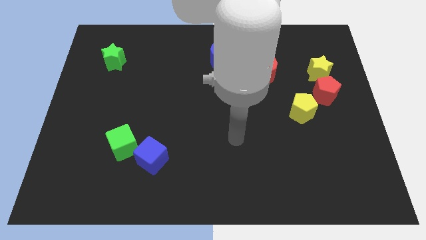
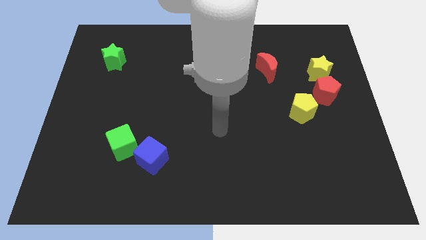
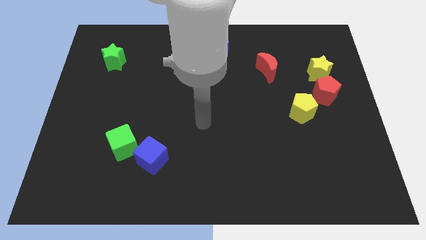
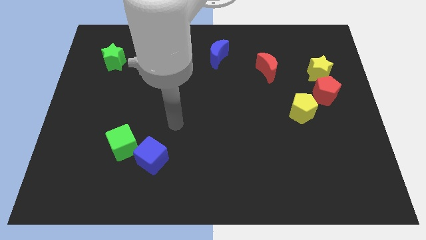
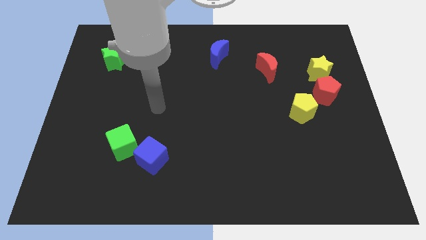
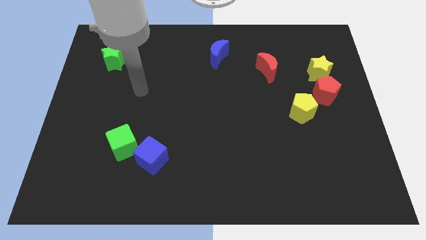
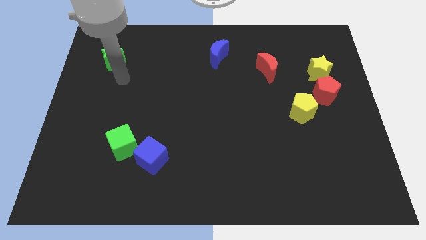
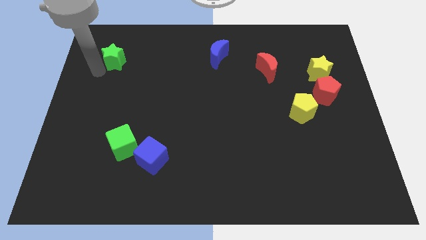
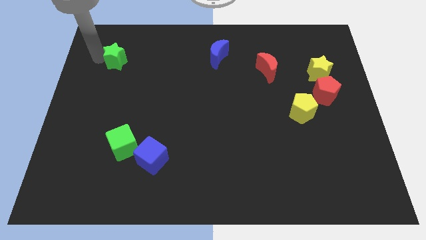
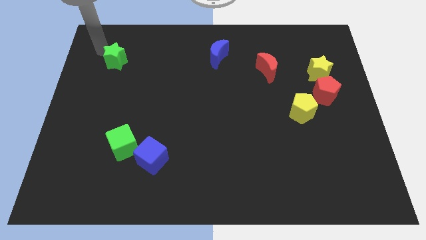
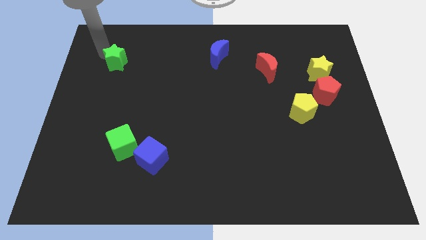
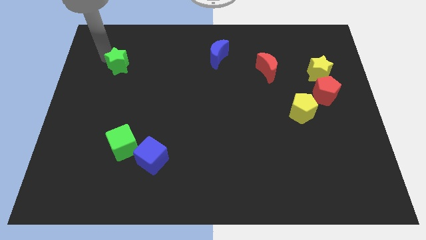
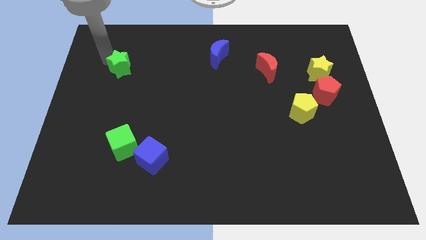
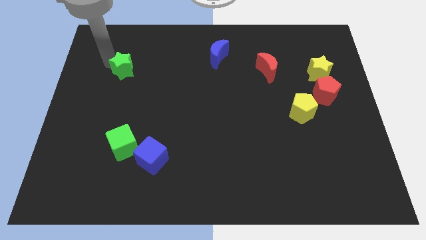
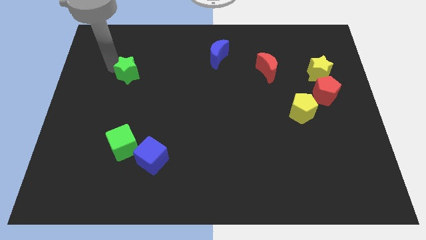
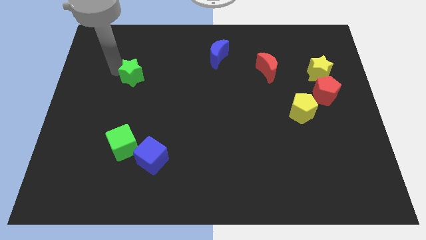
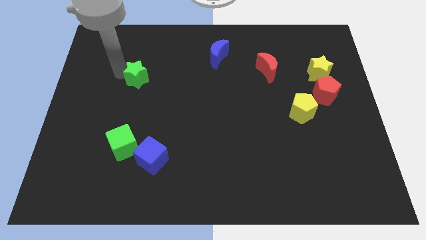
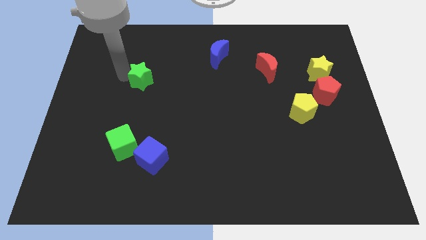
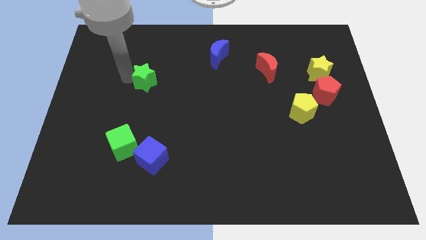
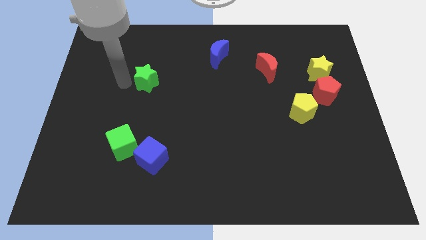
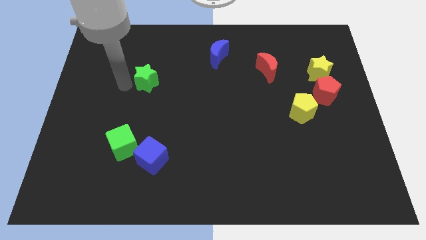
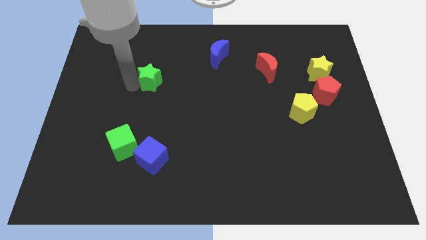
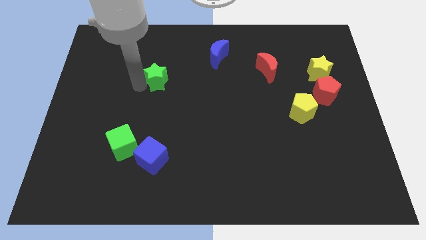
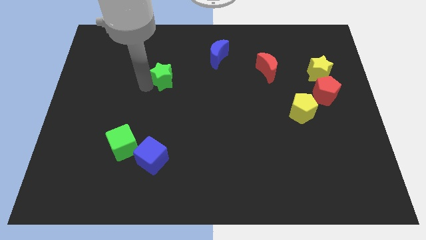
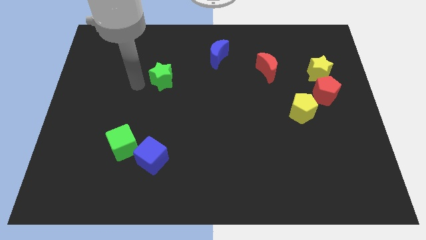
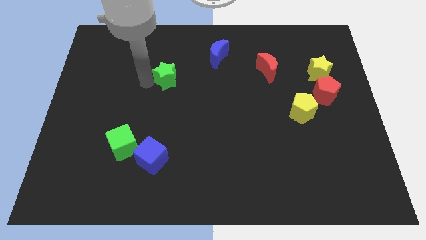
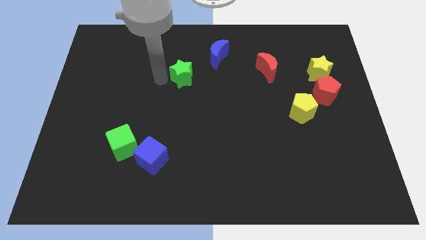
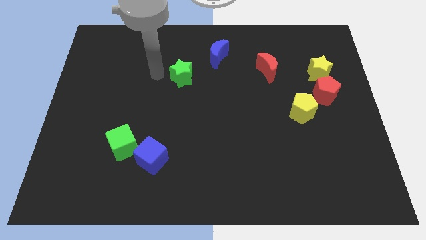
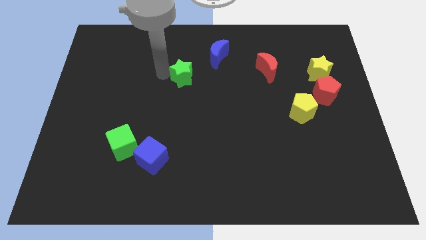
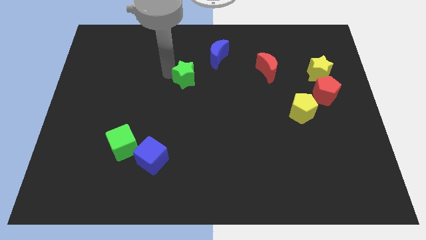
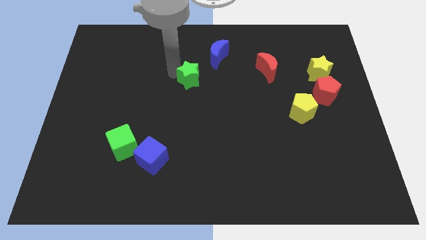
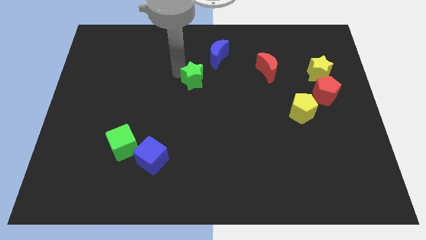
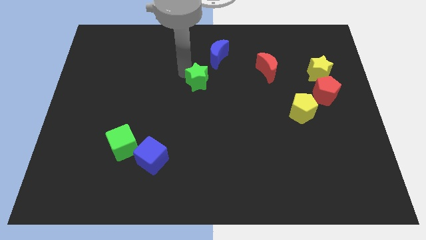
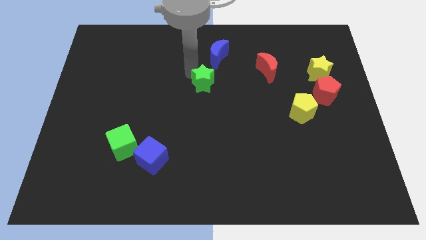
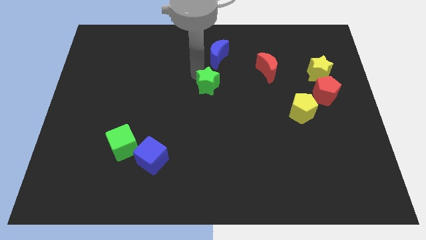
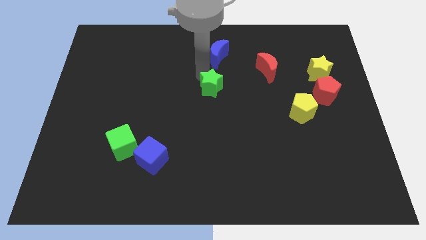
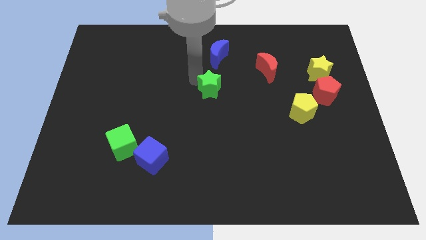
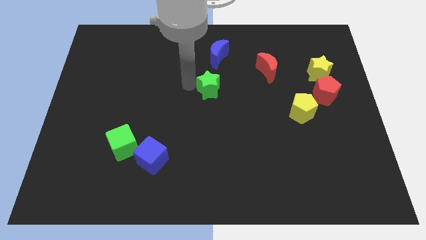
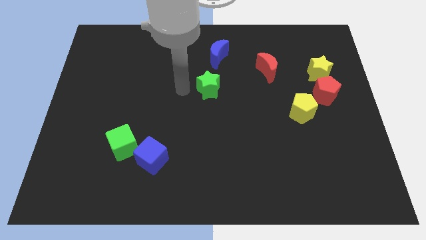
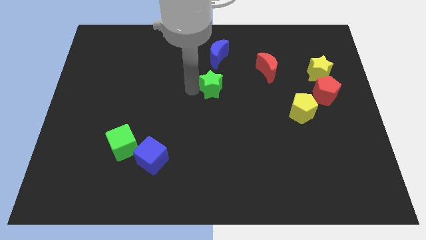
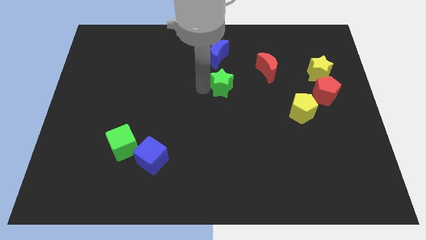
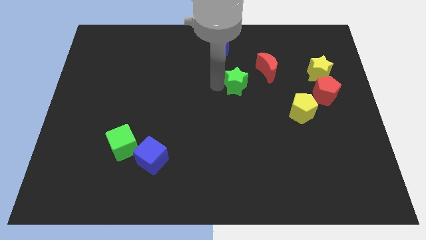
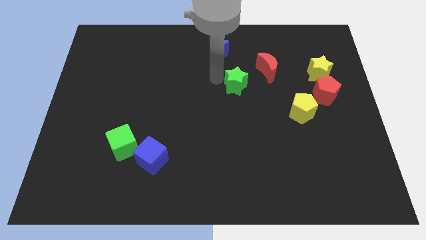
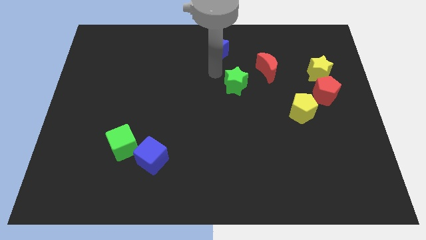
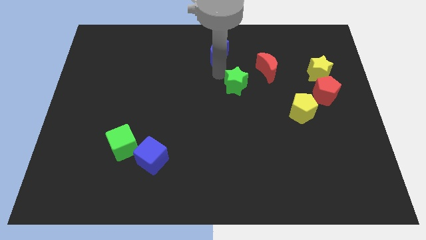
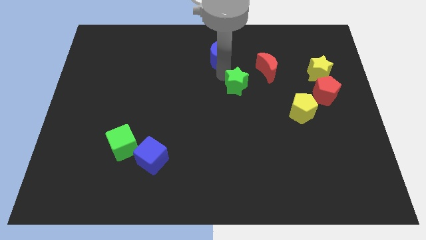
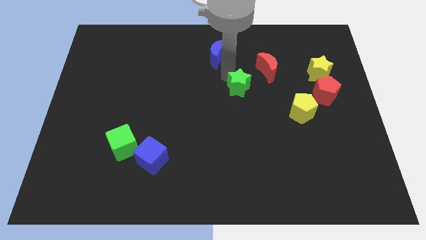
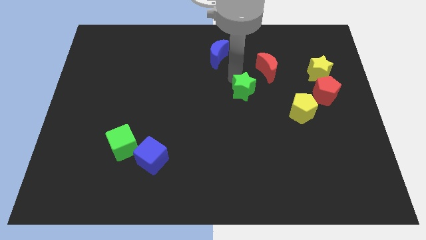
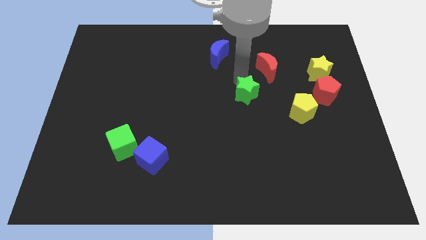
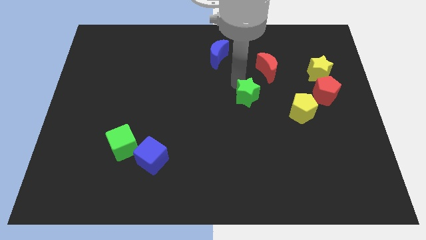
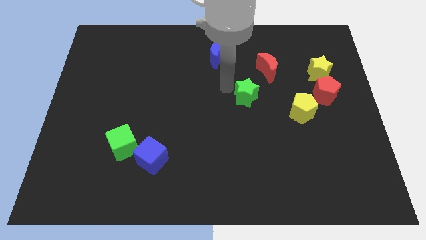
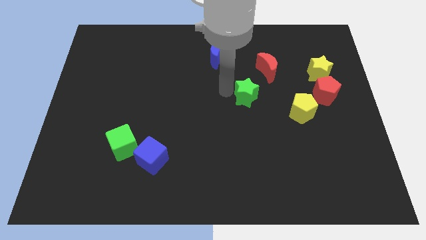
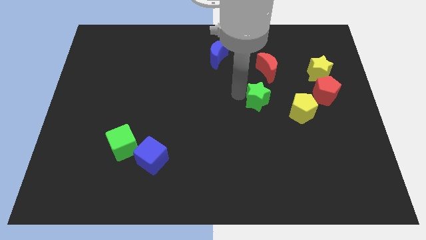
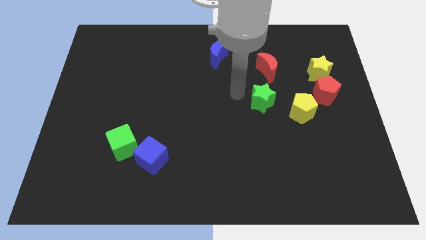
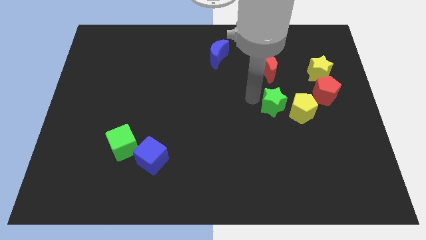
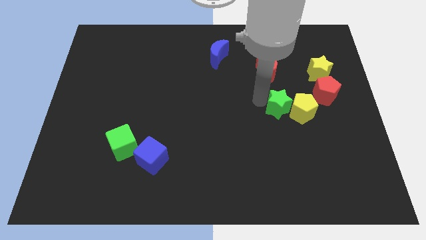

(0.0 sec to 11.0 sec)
slide the green star towards the yellow pentagon

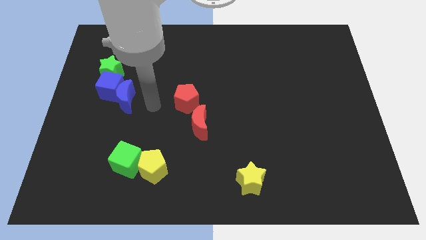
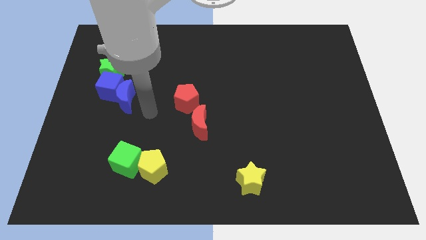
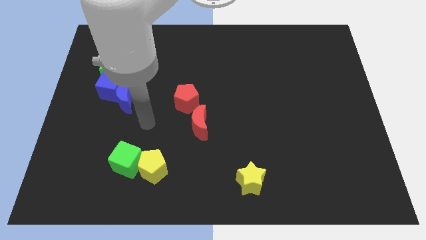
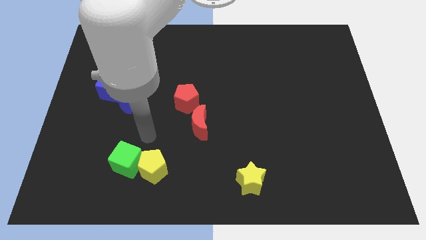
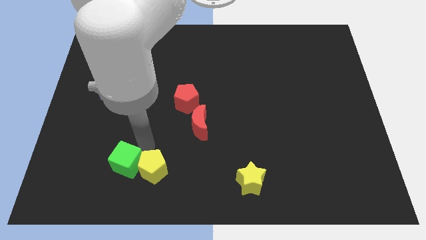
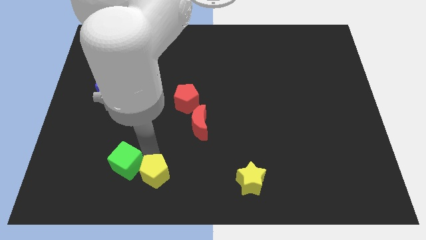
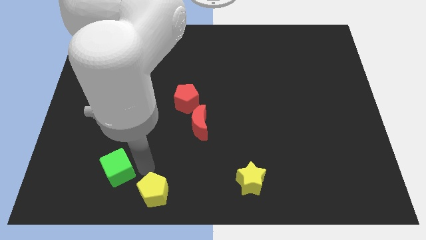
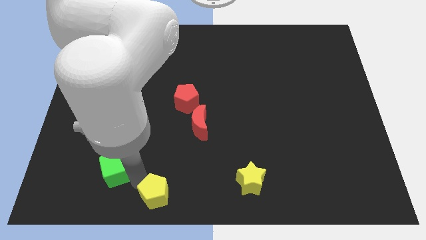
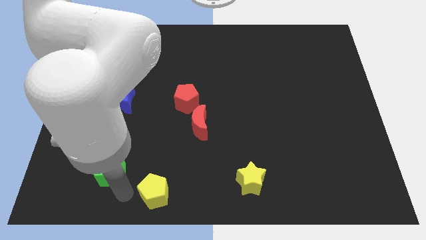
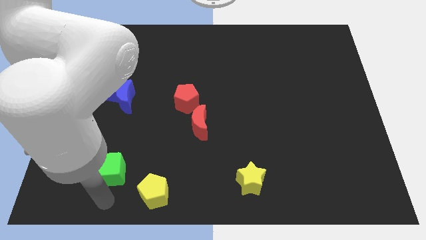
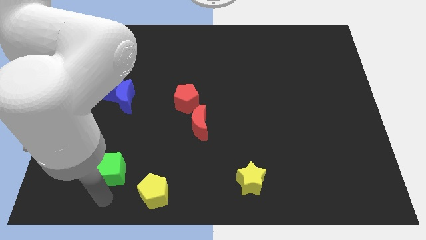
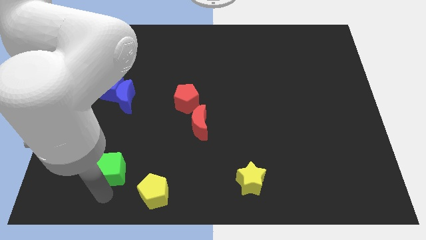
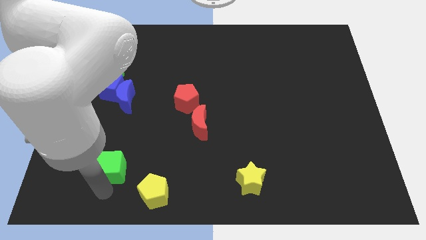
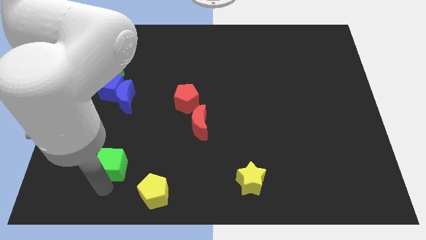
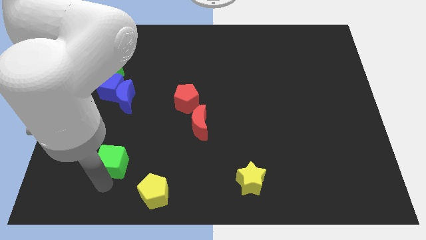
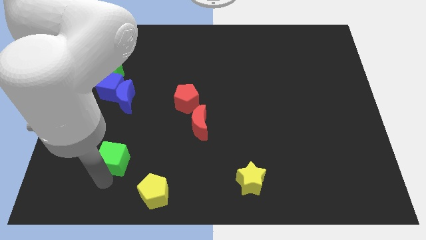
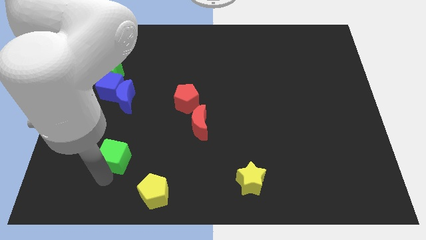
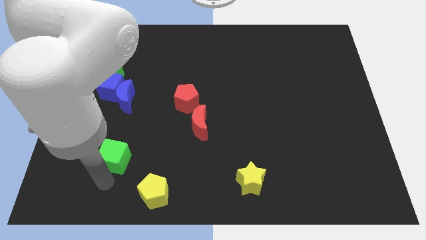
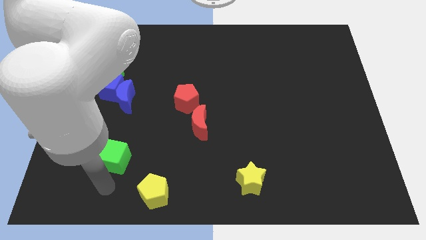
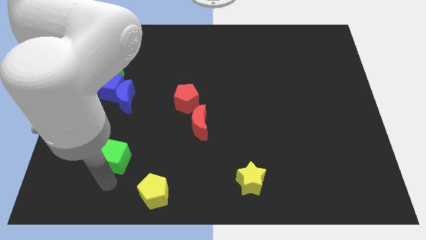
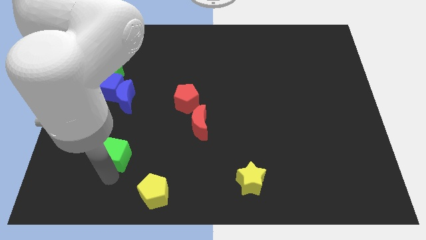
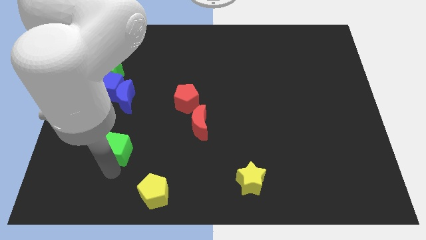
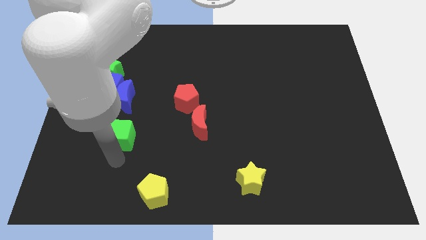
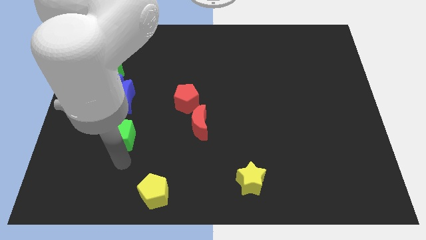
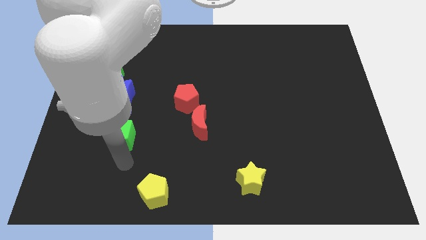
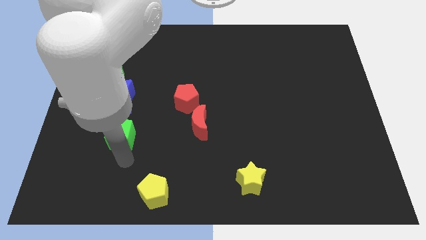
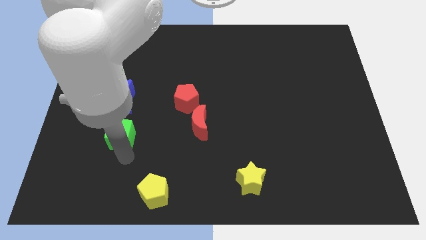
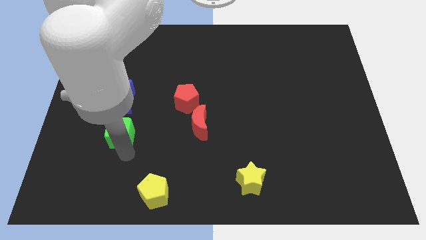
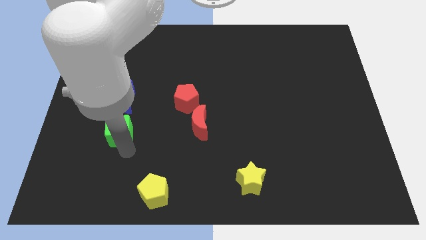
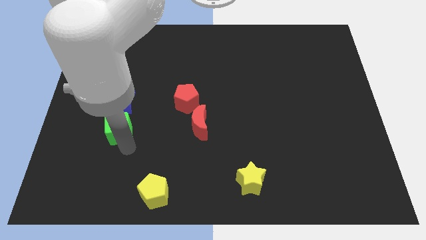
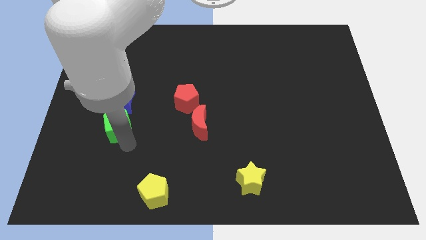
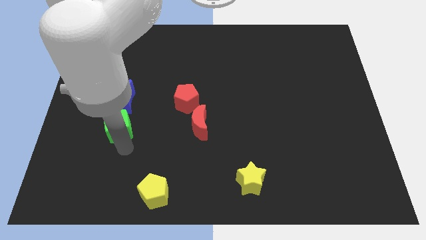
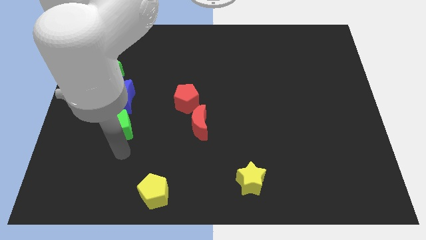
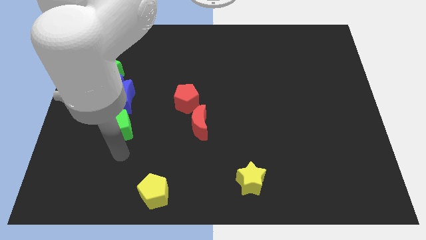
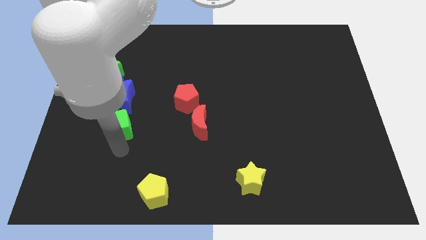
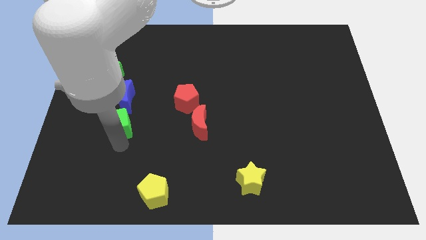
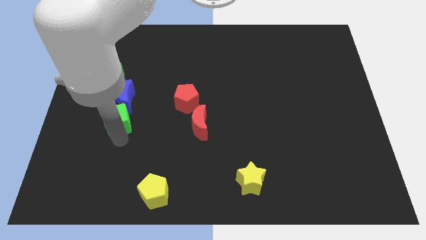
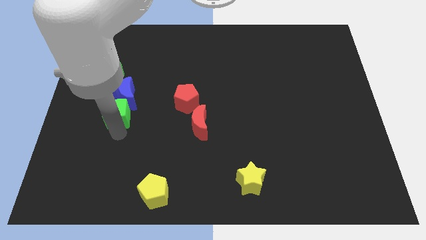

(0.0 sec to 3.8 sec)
push the green cube to the blue moon
